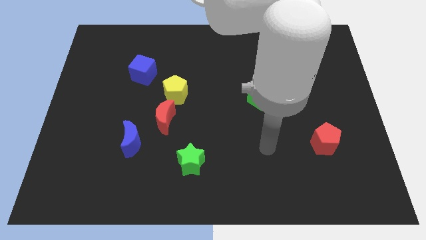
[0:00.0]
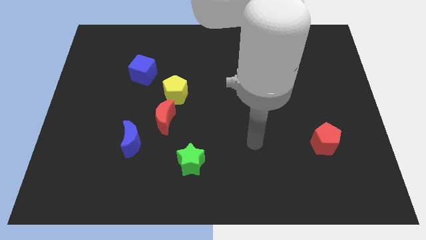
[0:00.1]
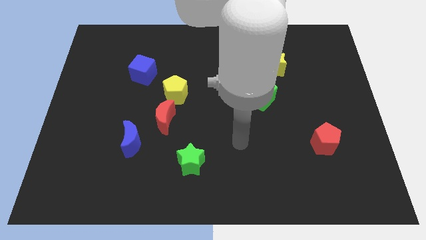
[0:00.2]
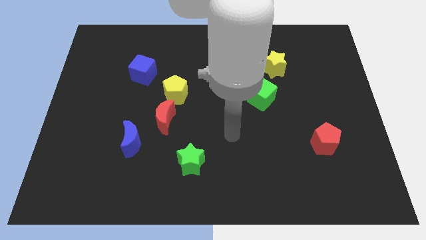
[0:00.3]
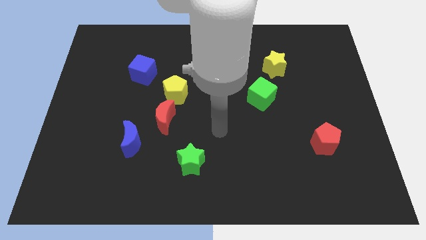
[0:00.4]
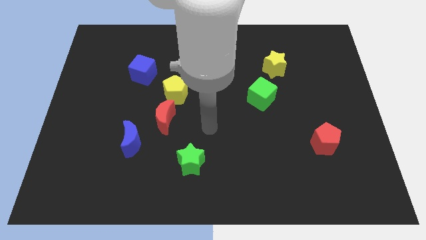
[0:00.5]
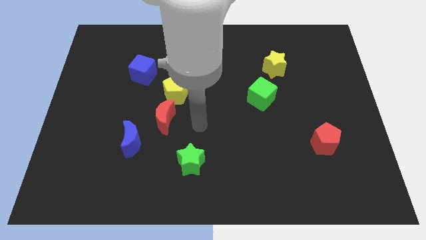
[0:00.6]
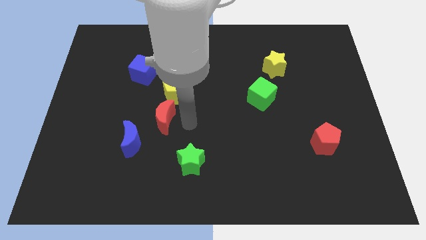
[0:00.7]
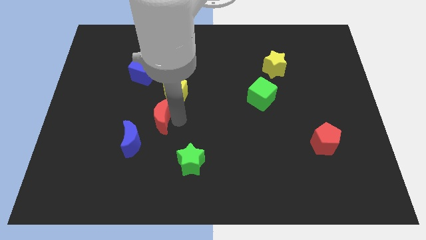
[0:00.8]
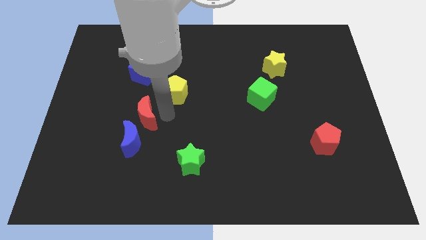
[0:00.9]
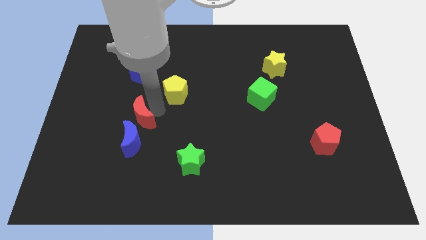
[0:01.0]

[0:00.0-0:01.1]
pull the yellow pentagon apart from the red moon

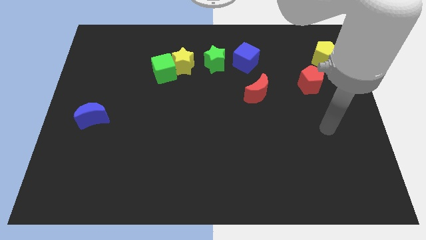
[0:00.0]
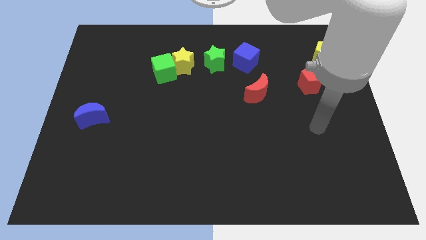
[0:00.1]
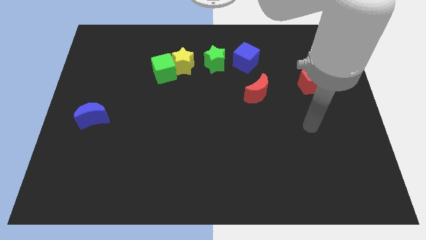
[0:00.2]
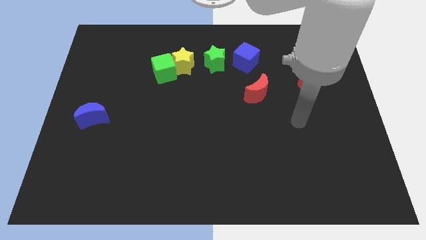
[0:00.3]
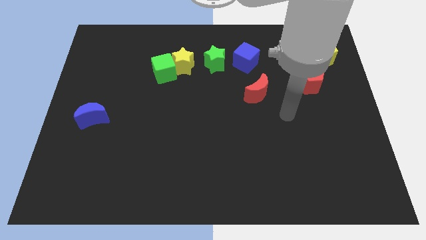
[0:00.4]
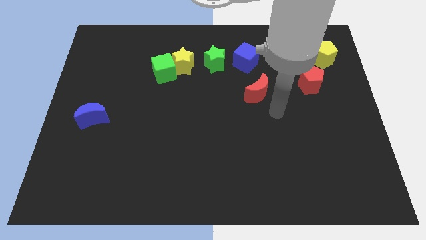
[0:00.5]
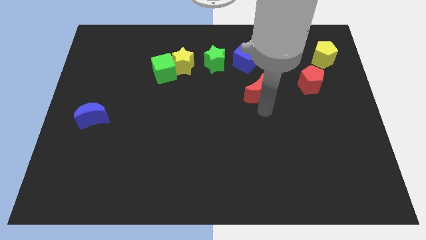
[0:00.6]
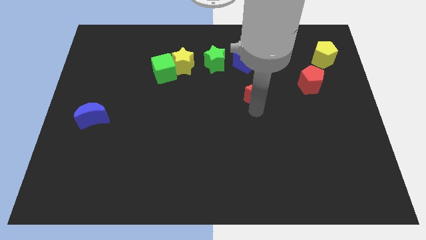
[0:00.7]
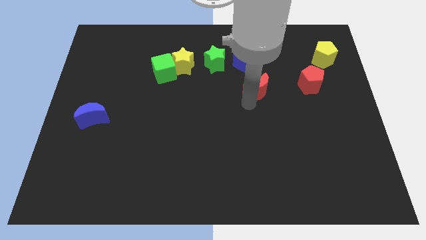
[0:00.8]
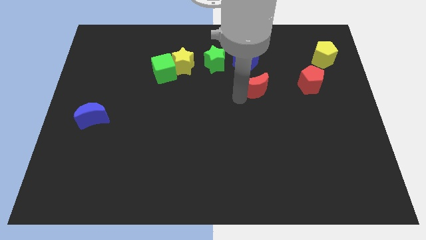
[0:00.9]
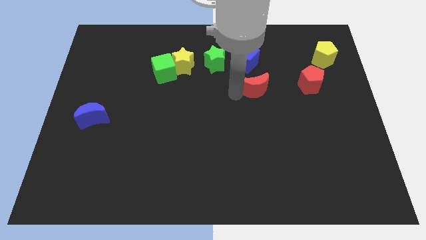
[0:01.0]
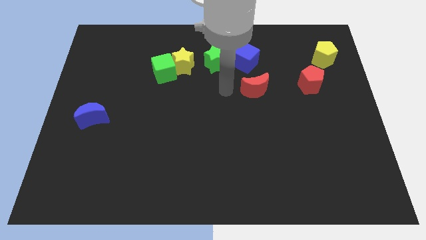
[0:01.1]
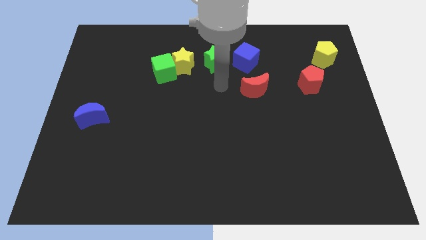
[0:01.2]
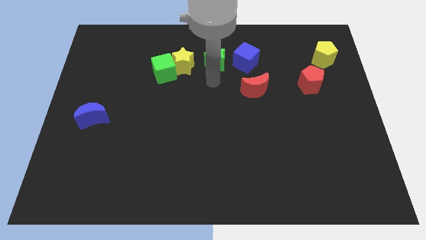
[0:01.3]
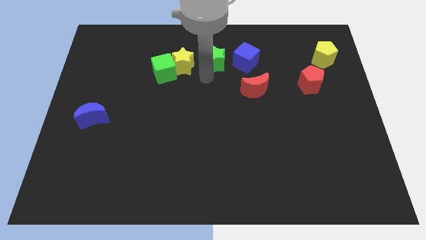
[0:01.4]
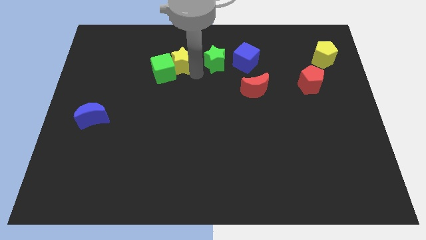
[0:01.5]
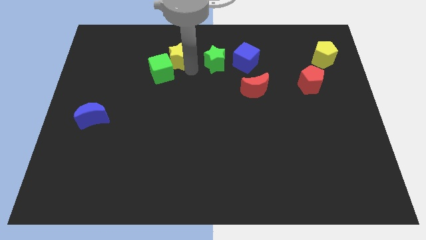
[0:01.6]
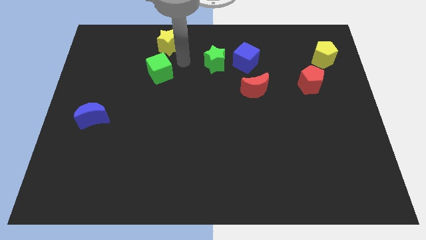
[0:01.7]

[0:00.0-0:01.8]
pull the green cube apart from the yellow star

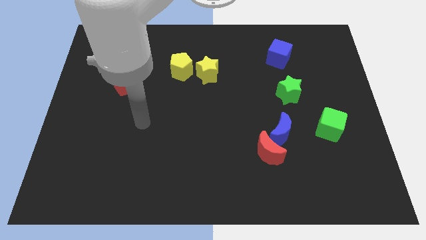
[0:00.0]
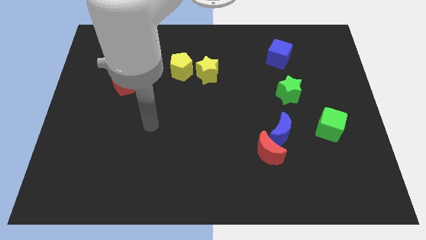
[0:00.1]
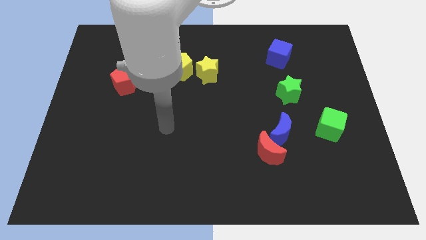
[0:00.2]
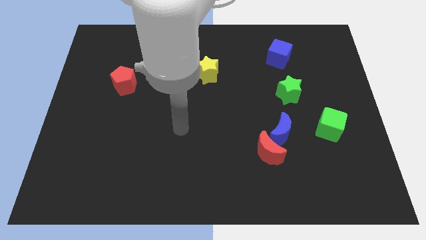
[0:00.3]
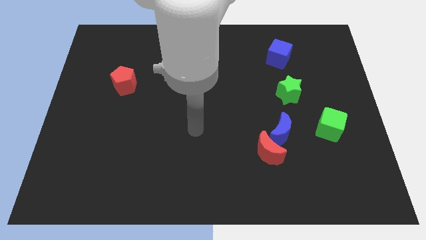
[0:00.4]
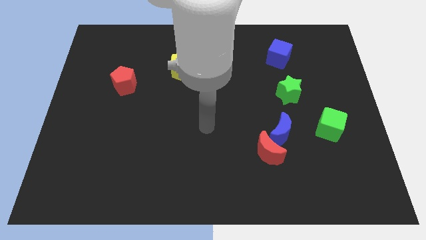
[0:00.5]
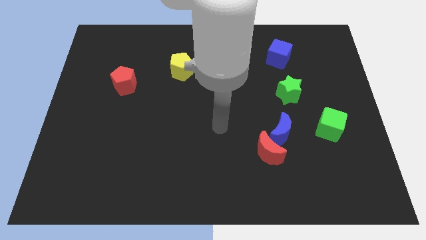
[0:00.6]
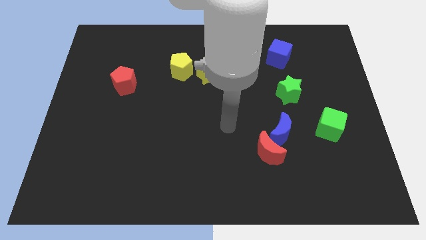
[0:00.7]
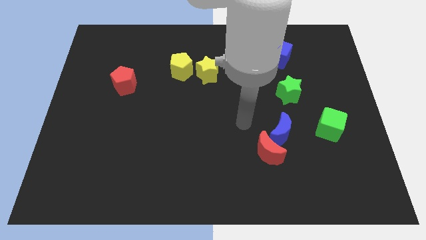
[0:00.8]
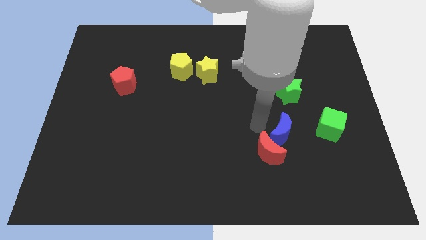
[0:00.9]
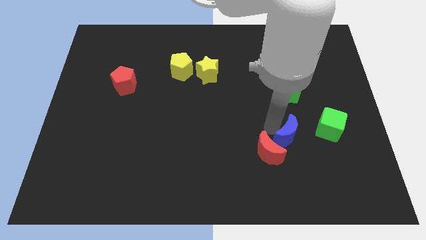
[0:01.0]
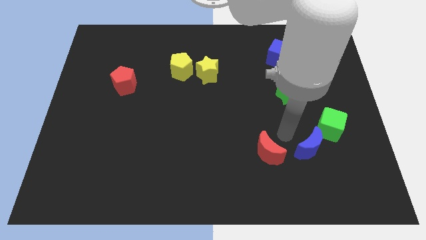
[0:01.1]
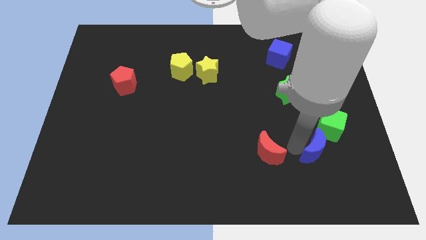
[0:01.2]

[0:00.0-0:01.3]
pull the red moon apart from the blue moon

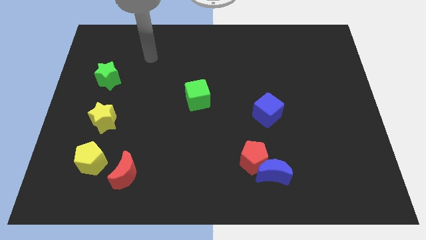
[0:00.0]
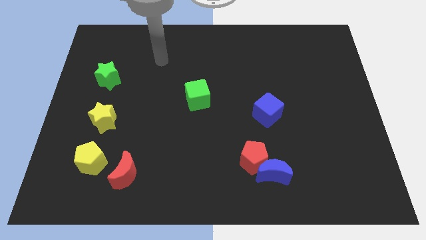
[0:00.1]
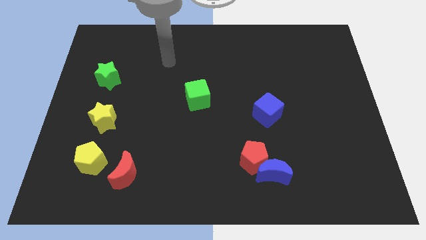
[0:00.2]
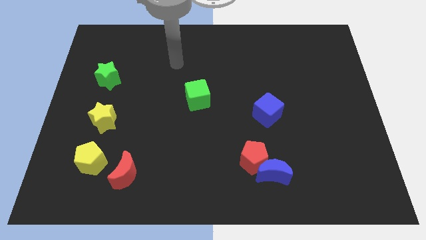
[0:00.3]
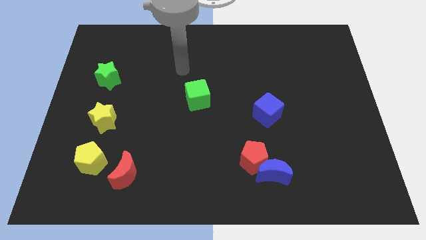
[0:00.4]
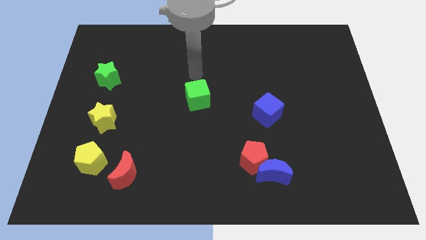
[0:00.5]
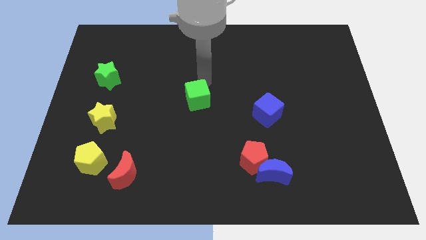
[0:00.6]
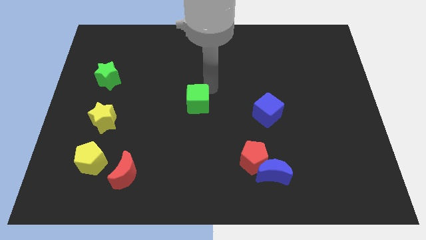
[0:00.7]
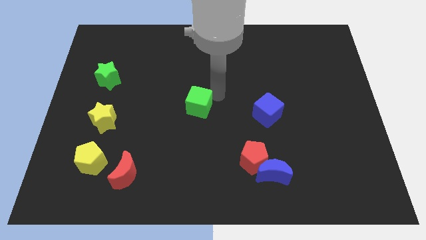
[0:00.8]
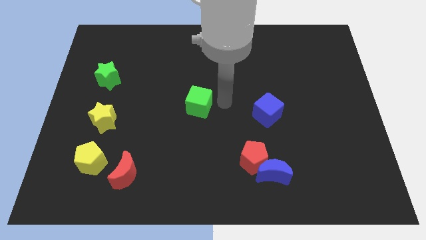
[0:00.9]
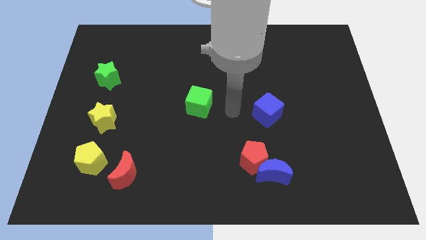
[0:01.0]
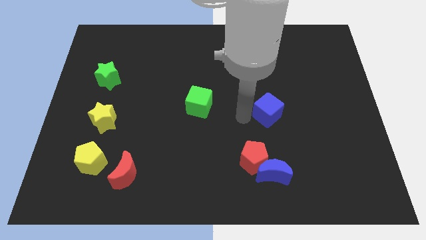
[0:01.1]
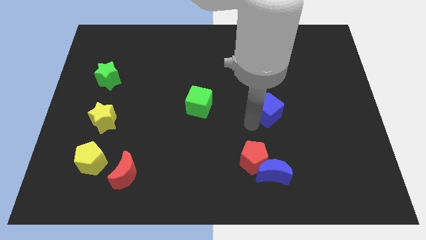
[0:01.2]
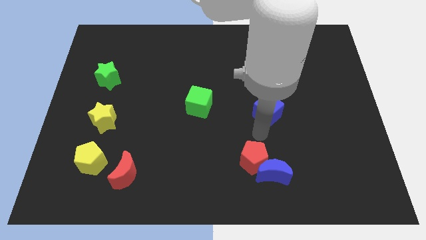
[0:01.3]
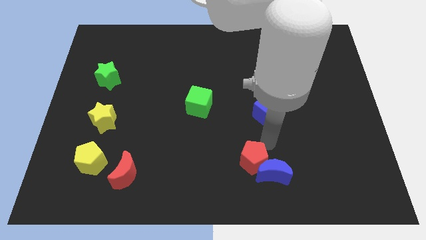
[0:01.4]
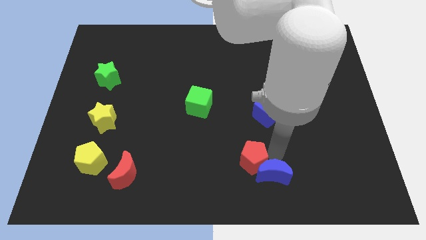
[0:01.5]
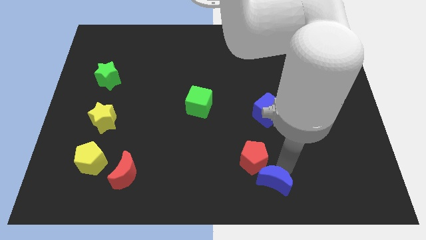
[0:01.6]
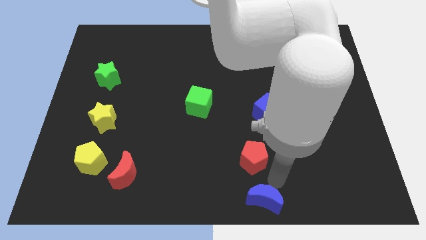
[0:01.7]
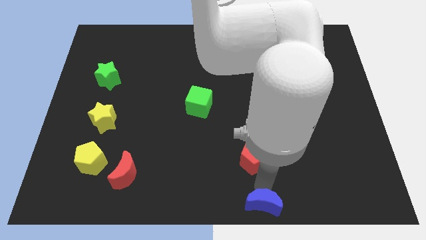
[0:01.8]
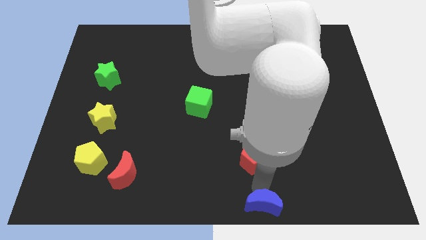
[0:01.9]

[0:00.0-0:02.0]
pull the red pentagon apart from the blue moon

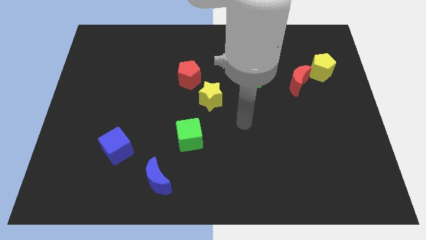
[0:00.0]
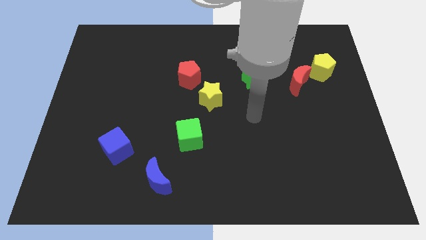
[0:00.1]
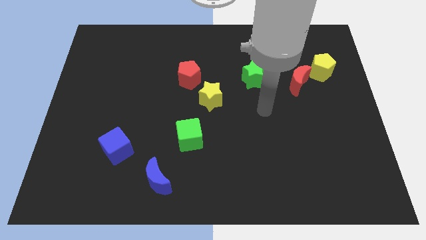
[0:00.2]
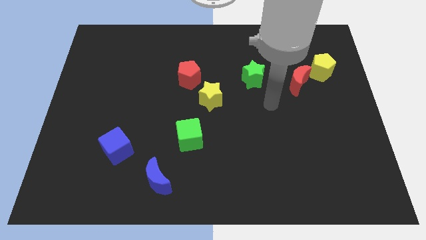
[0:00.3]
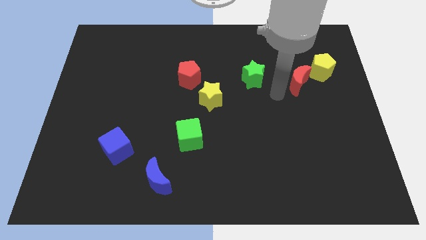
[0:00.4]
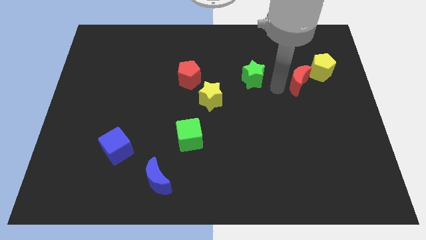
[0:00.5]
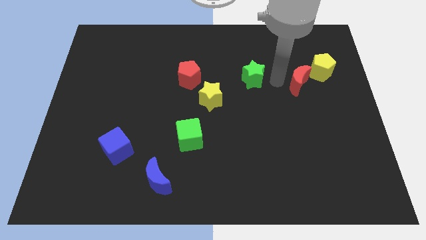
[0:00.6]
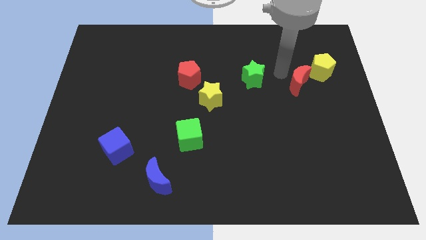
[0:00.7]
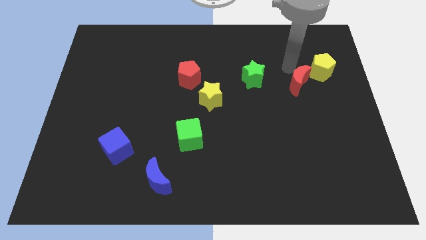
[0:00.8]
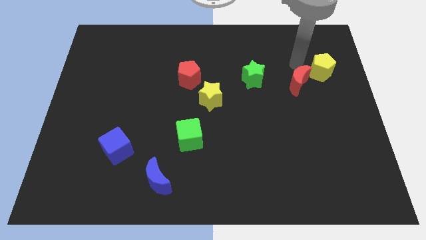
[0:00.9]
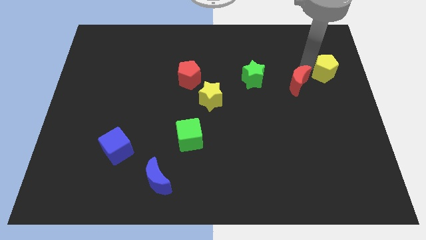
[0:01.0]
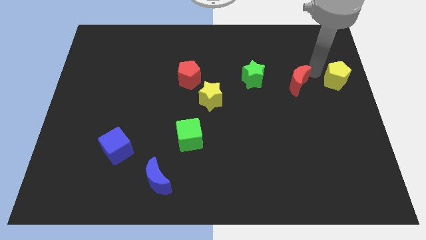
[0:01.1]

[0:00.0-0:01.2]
move the red moon away from the yellow pentagon

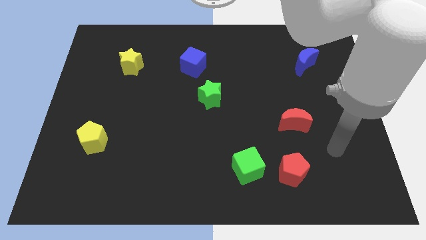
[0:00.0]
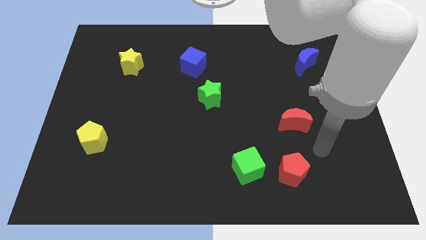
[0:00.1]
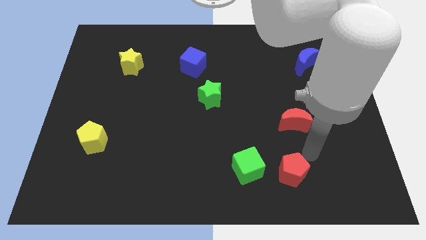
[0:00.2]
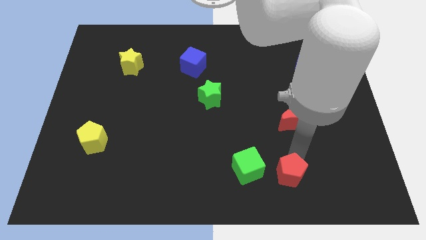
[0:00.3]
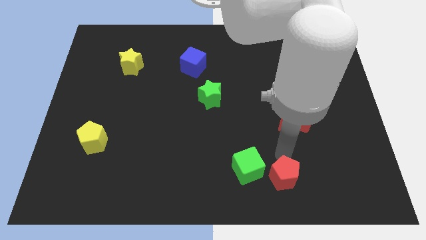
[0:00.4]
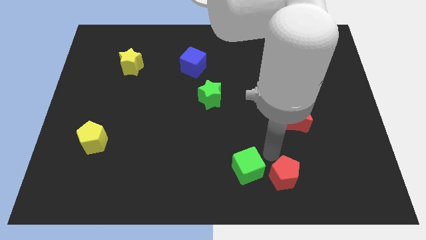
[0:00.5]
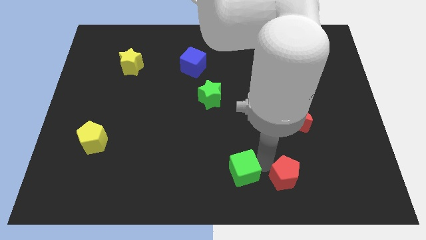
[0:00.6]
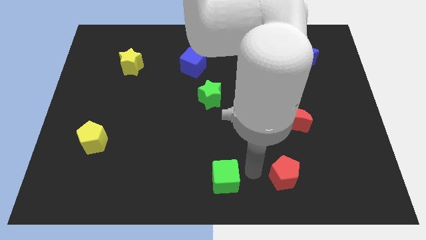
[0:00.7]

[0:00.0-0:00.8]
separate the red pentagon from the green cube

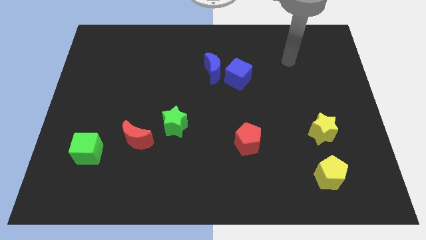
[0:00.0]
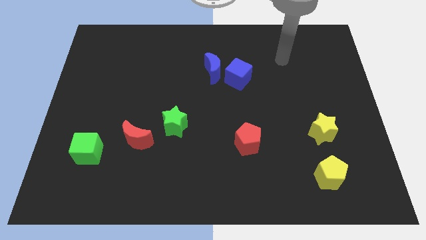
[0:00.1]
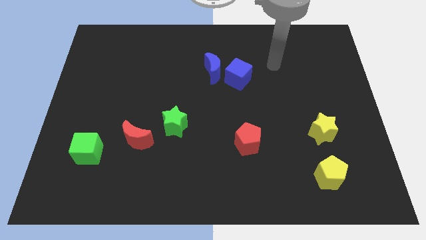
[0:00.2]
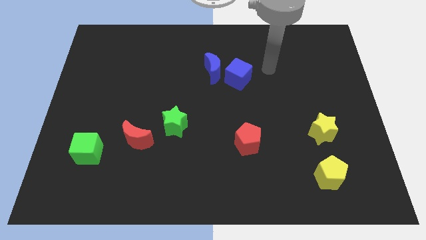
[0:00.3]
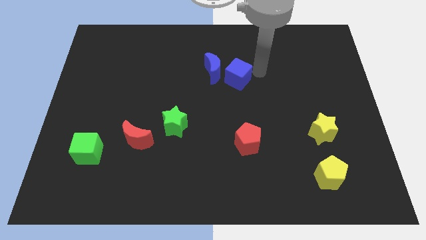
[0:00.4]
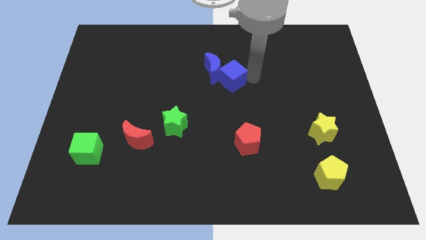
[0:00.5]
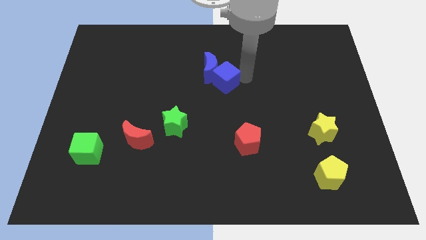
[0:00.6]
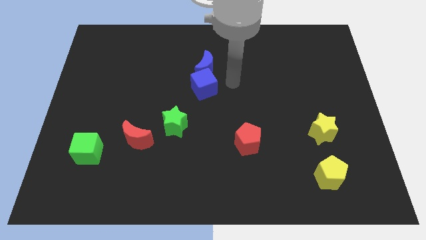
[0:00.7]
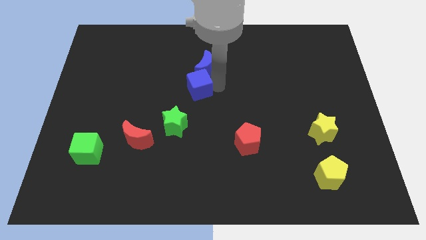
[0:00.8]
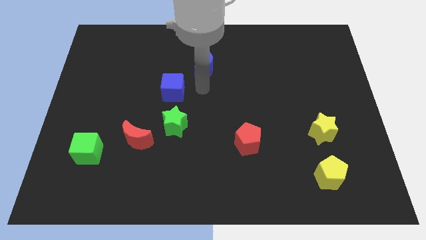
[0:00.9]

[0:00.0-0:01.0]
separate the blue moon from the blue cube
